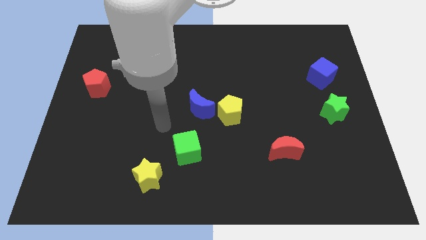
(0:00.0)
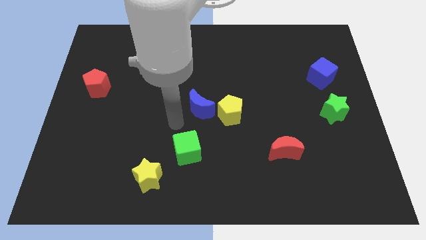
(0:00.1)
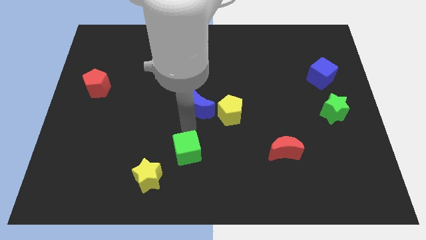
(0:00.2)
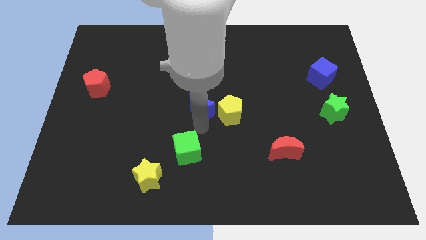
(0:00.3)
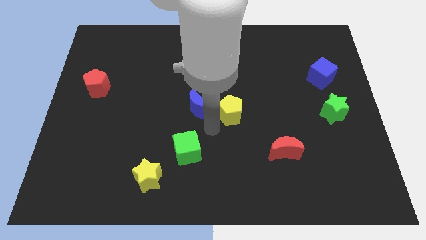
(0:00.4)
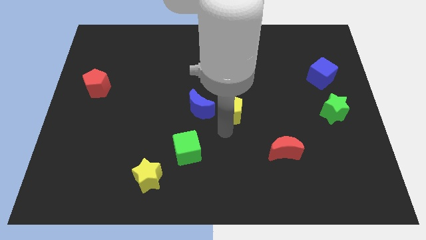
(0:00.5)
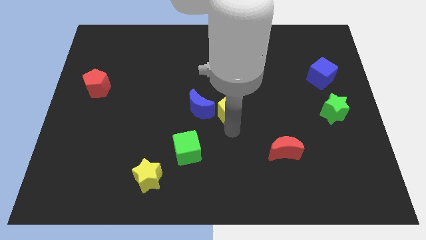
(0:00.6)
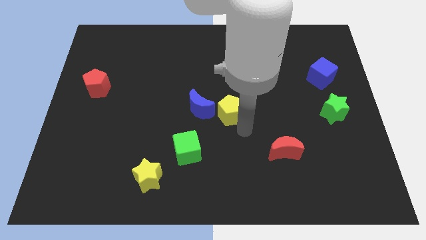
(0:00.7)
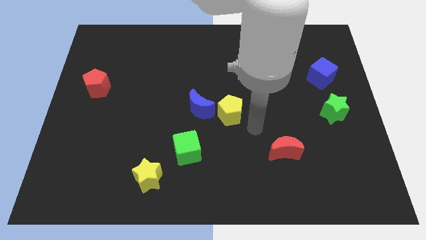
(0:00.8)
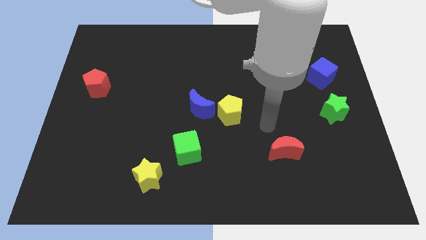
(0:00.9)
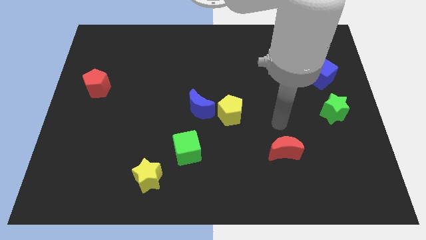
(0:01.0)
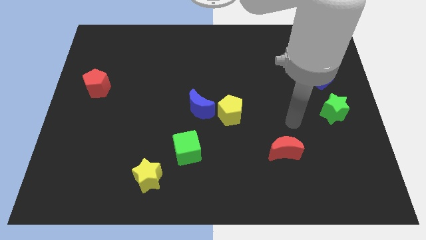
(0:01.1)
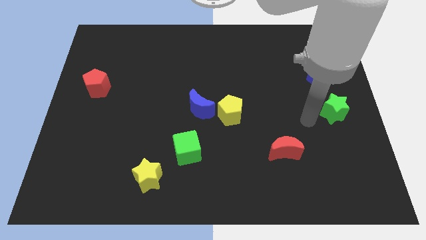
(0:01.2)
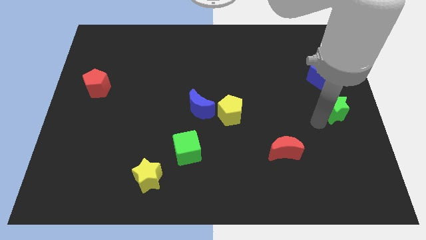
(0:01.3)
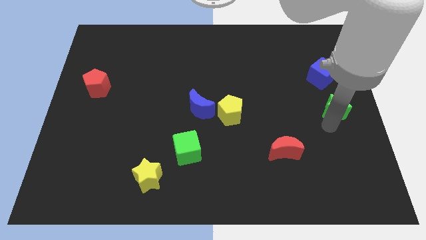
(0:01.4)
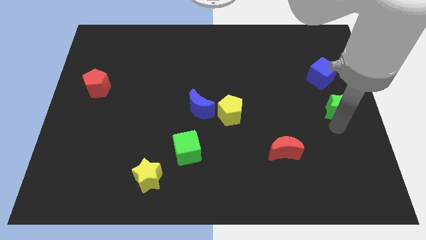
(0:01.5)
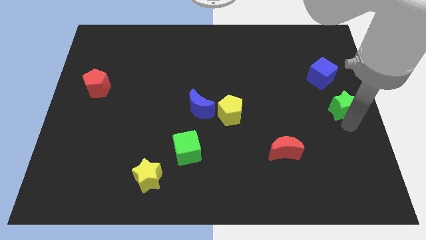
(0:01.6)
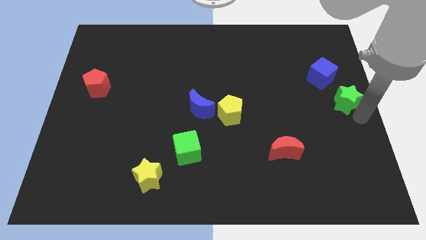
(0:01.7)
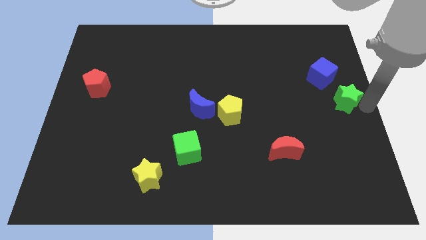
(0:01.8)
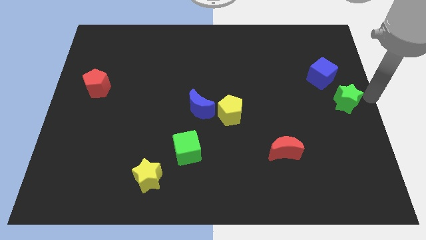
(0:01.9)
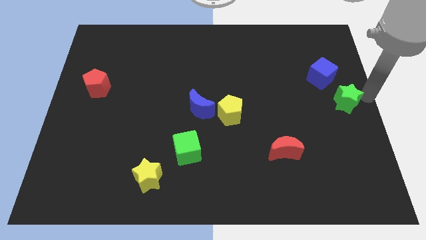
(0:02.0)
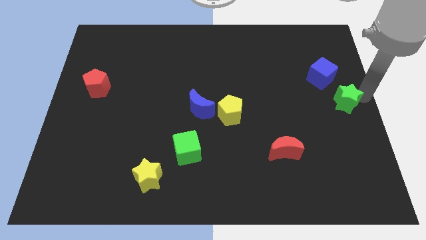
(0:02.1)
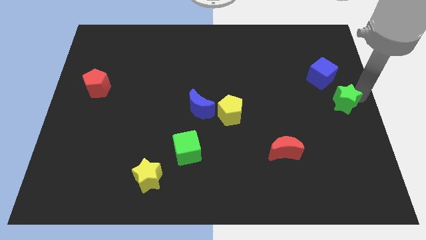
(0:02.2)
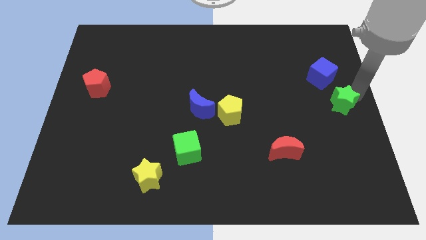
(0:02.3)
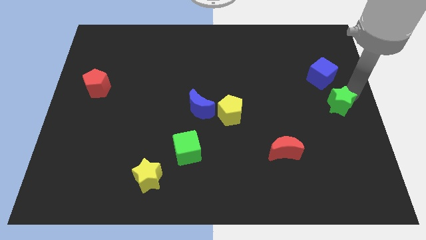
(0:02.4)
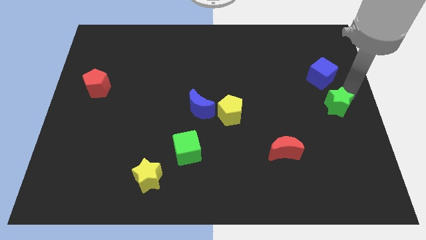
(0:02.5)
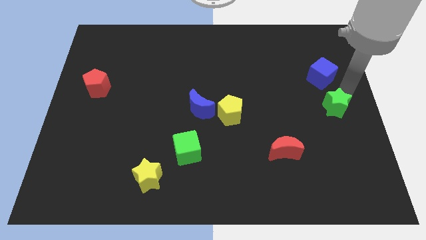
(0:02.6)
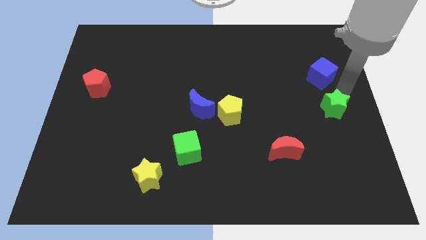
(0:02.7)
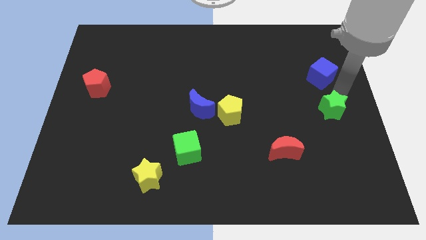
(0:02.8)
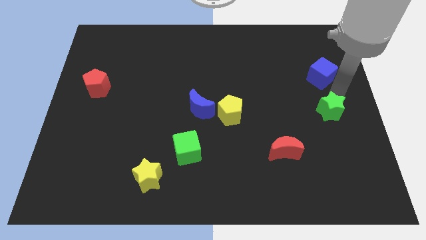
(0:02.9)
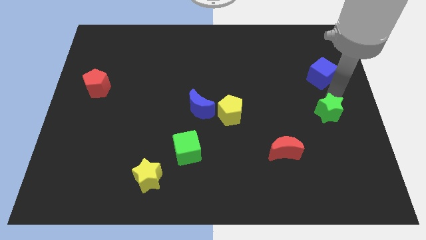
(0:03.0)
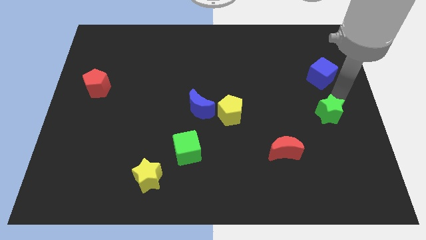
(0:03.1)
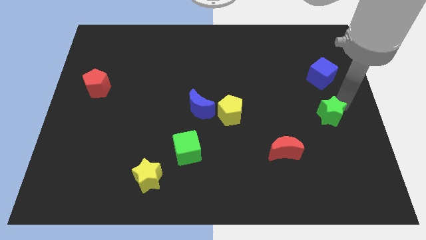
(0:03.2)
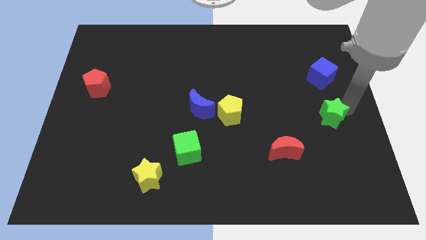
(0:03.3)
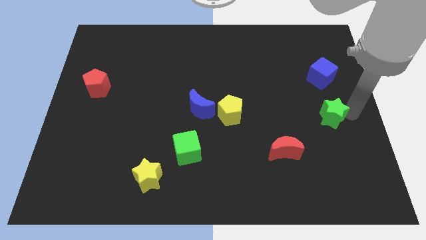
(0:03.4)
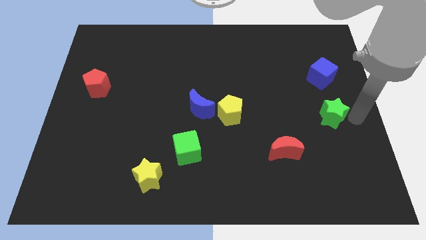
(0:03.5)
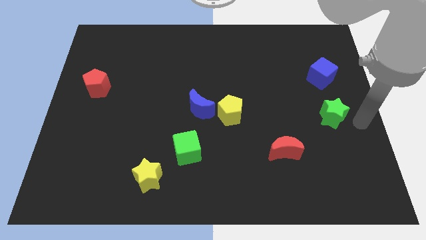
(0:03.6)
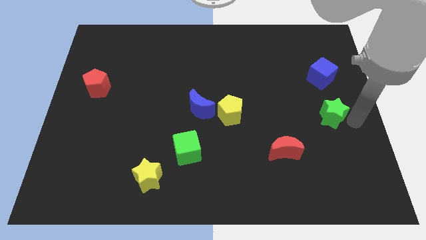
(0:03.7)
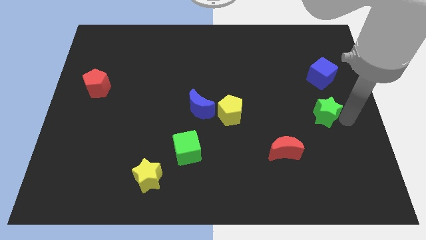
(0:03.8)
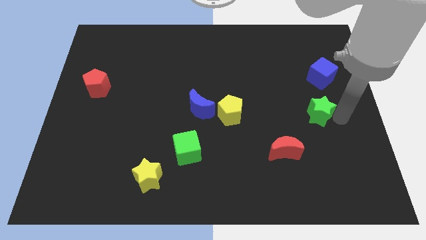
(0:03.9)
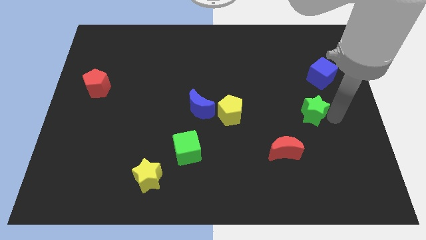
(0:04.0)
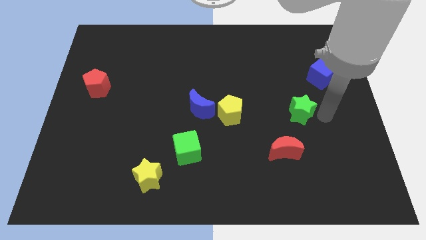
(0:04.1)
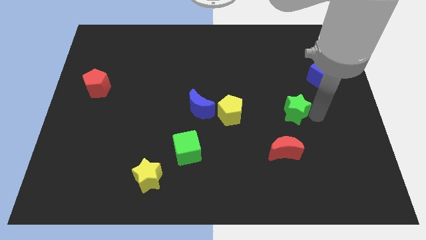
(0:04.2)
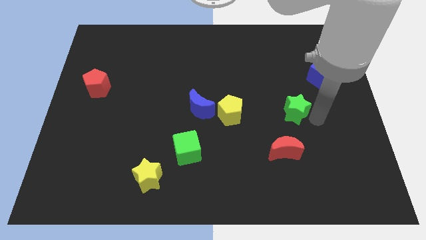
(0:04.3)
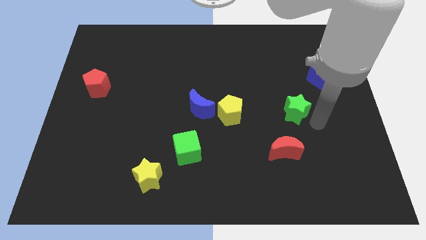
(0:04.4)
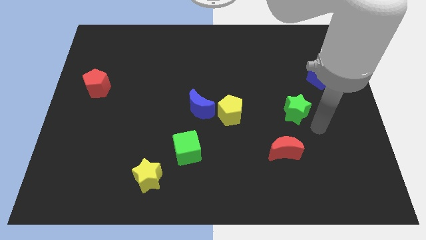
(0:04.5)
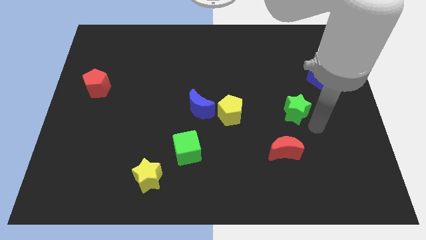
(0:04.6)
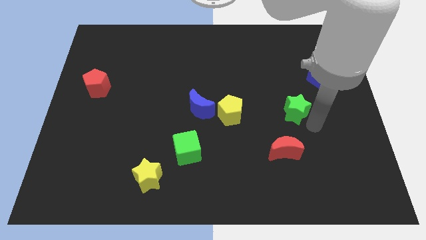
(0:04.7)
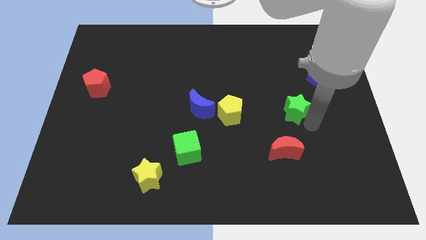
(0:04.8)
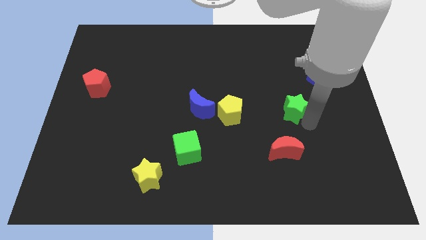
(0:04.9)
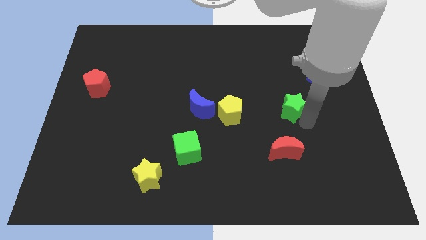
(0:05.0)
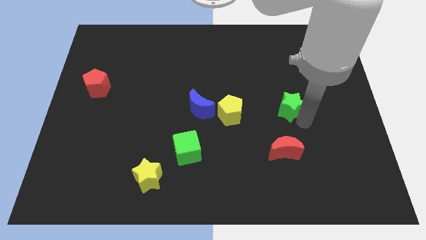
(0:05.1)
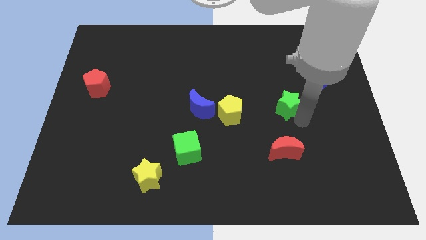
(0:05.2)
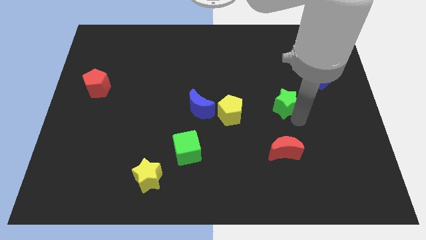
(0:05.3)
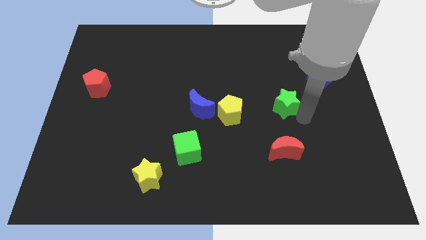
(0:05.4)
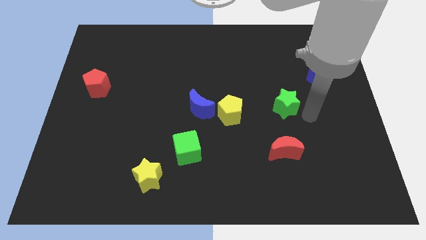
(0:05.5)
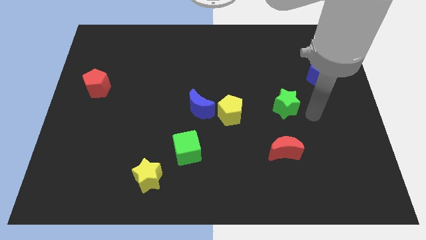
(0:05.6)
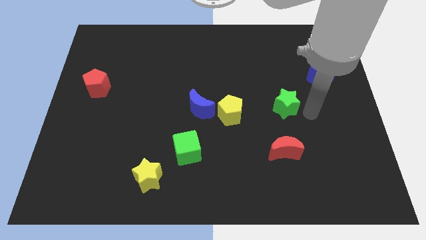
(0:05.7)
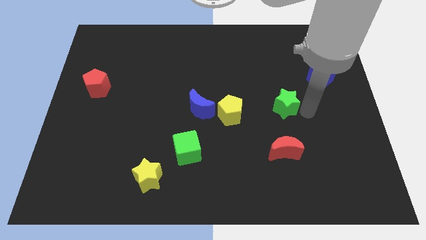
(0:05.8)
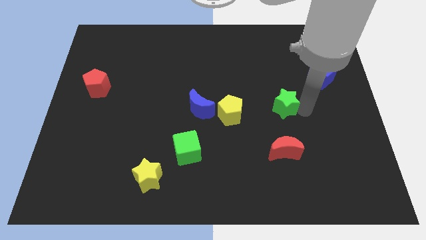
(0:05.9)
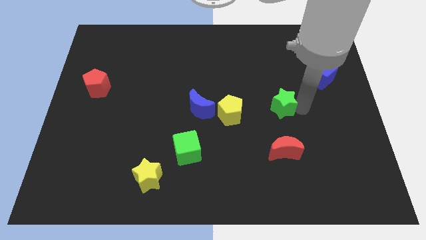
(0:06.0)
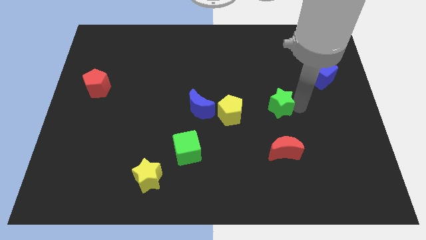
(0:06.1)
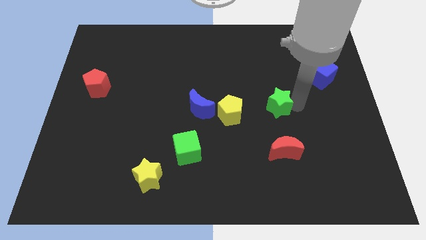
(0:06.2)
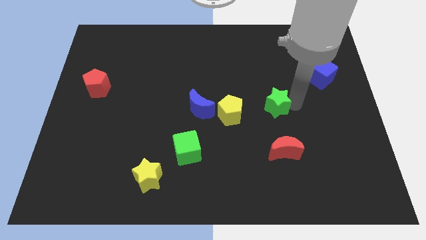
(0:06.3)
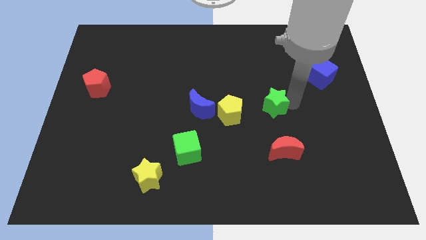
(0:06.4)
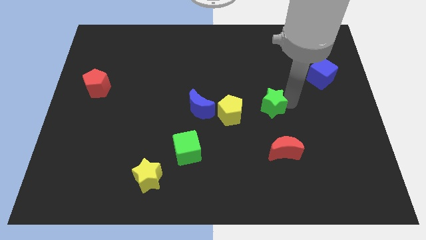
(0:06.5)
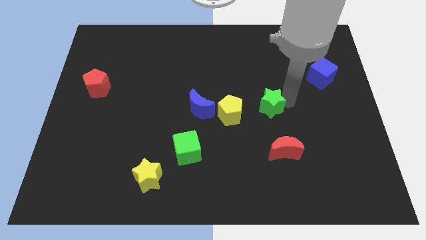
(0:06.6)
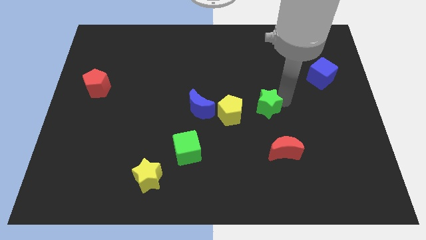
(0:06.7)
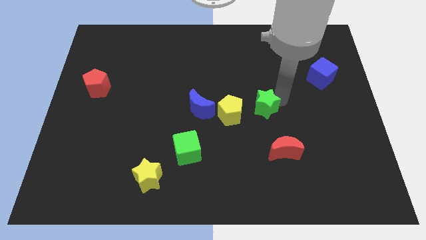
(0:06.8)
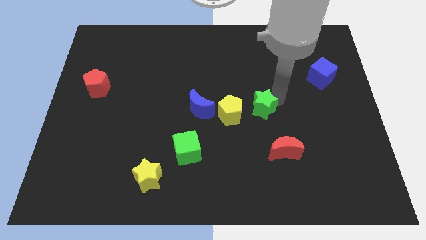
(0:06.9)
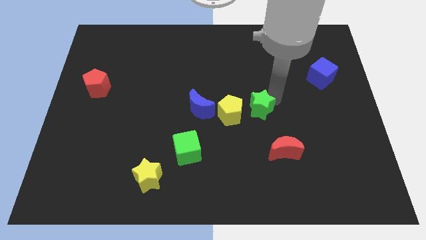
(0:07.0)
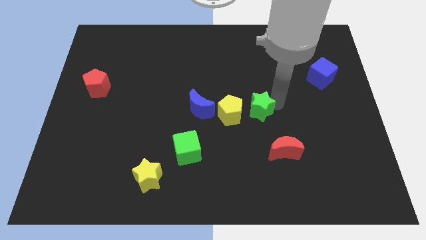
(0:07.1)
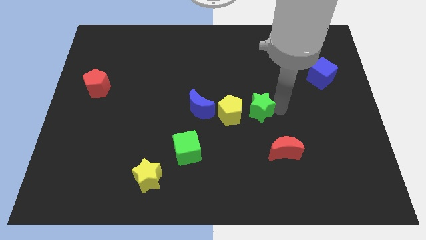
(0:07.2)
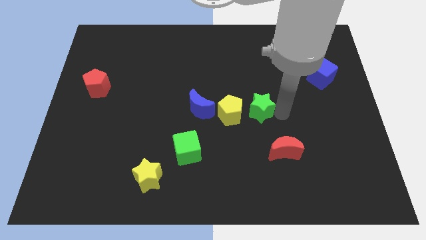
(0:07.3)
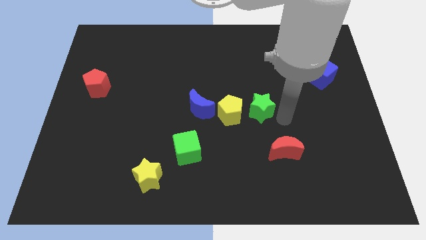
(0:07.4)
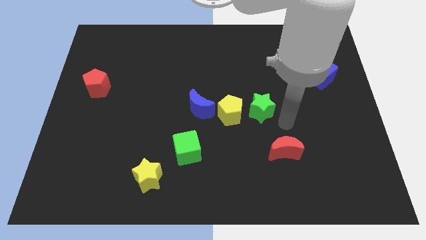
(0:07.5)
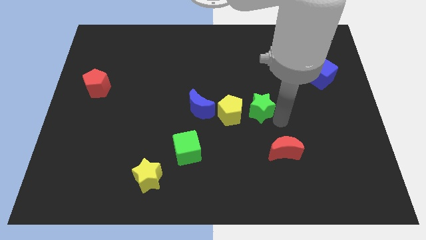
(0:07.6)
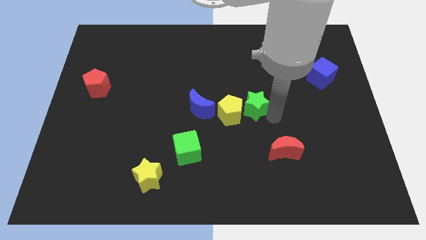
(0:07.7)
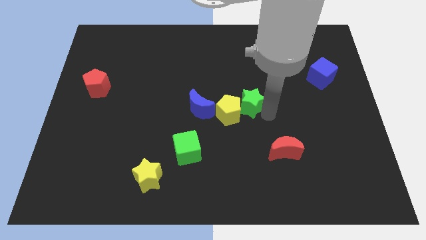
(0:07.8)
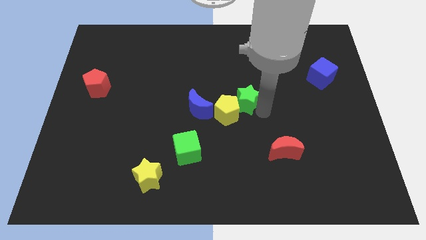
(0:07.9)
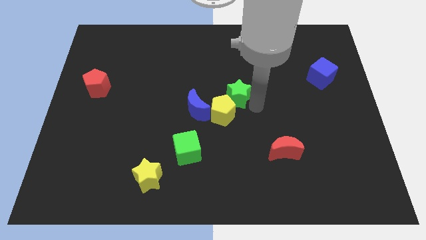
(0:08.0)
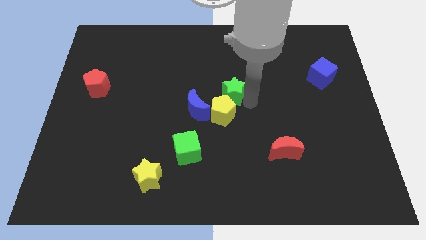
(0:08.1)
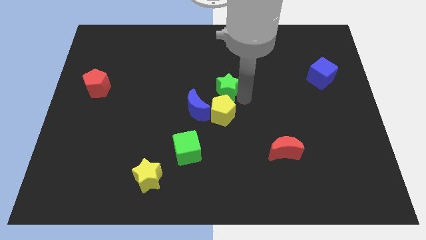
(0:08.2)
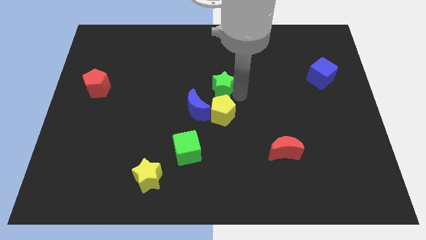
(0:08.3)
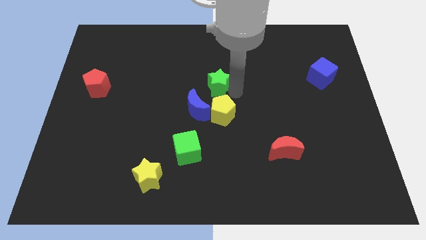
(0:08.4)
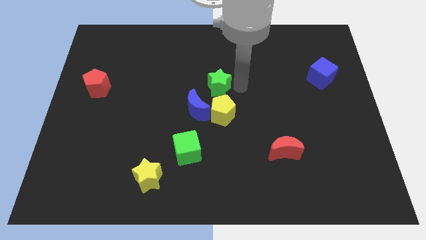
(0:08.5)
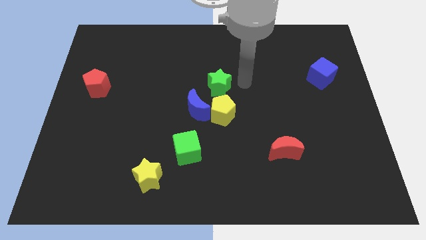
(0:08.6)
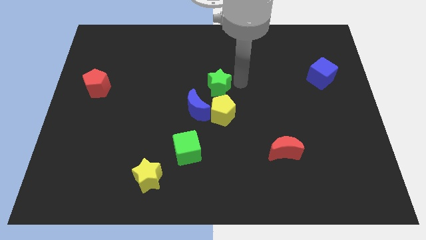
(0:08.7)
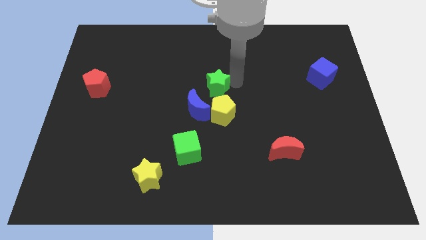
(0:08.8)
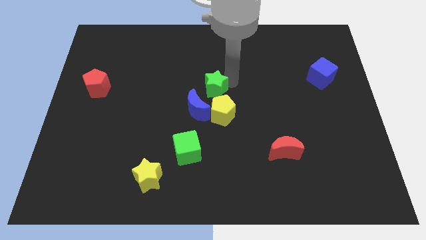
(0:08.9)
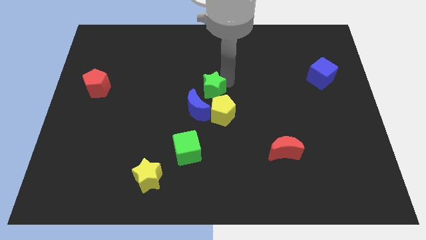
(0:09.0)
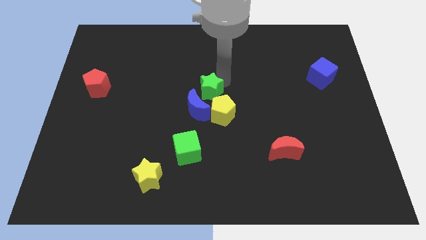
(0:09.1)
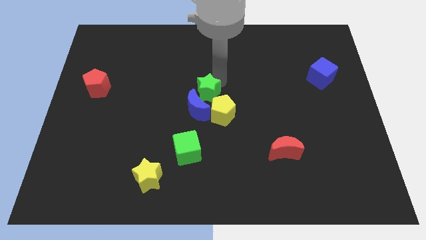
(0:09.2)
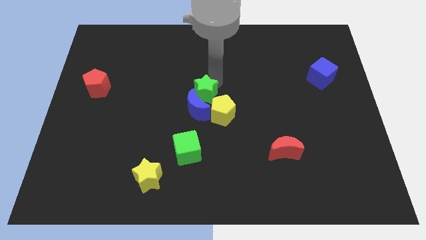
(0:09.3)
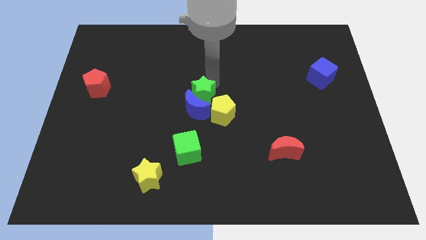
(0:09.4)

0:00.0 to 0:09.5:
put the green star to the top left side of the blue moon
